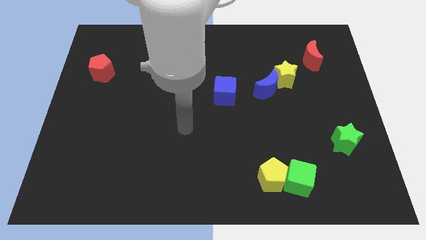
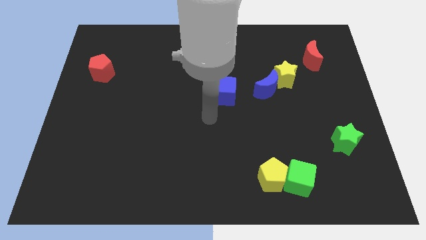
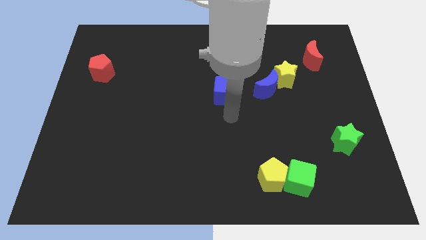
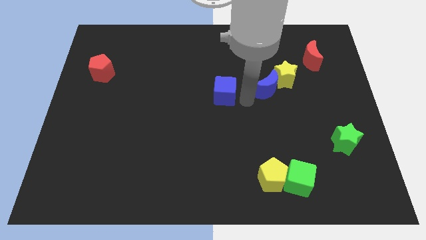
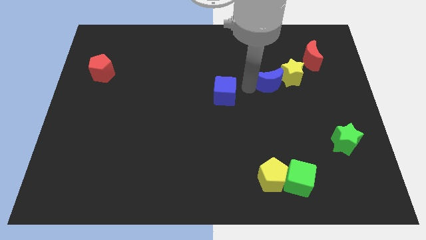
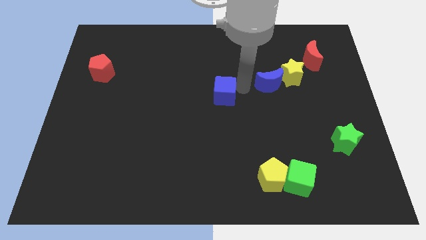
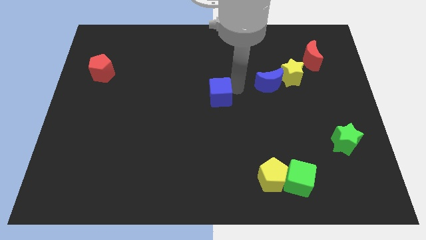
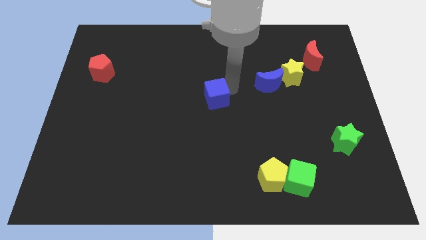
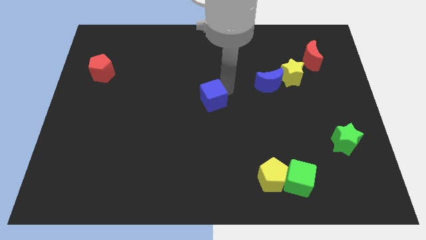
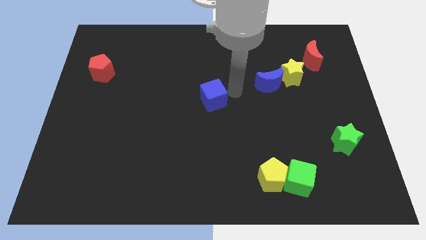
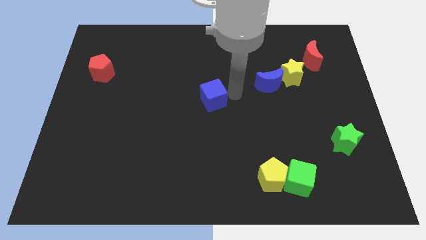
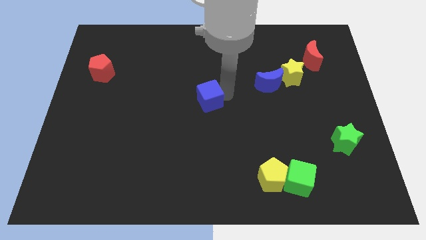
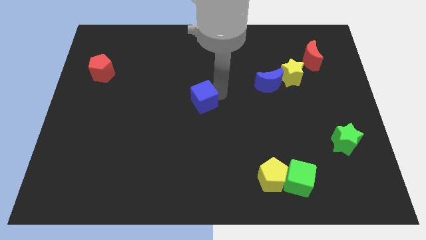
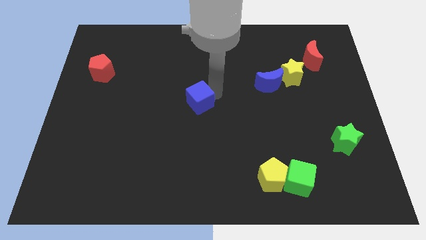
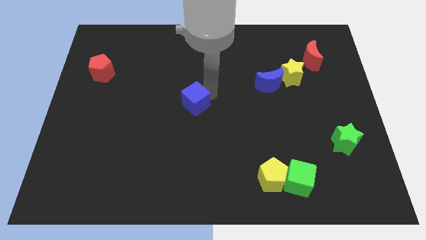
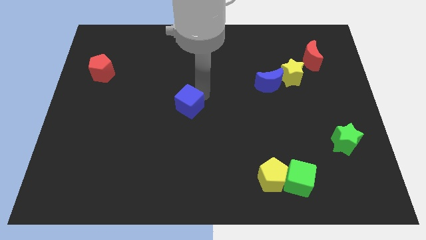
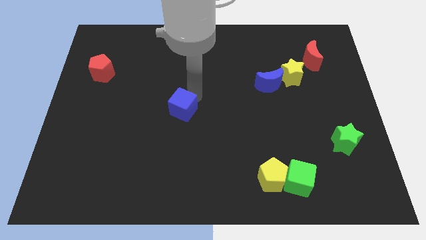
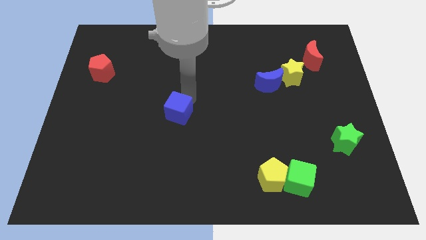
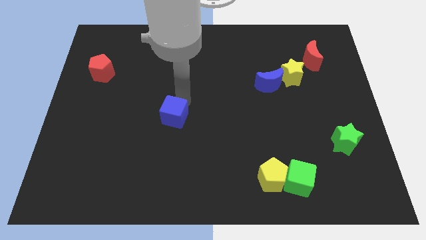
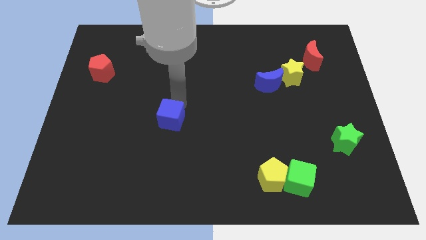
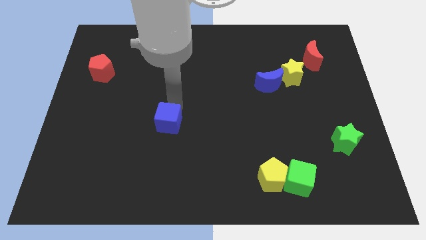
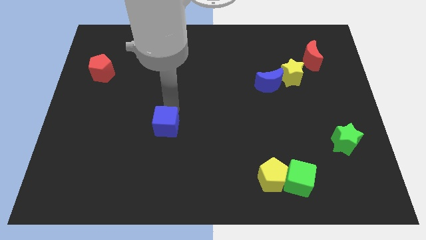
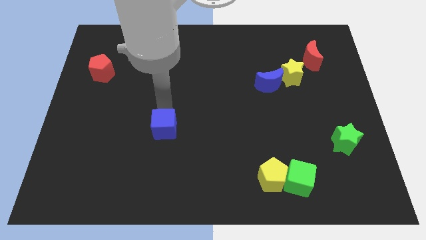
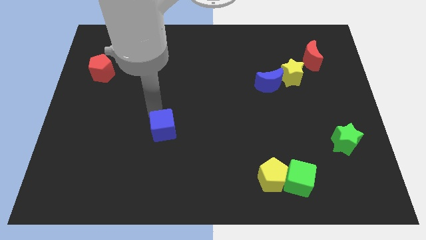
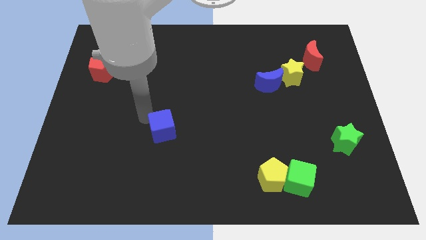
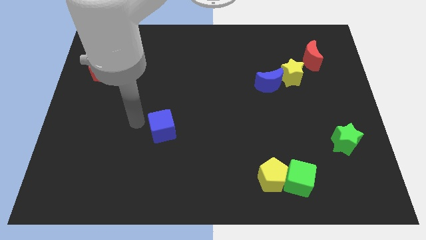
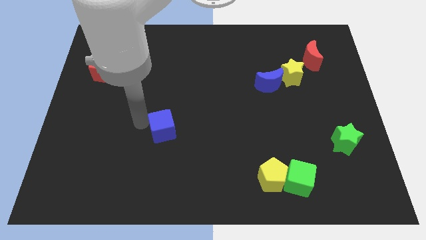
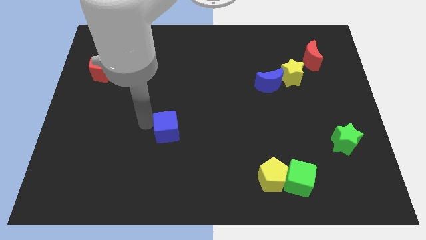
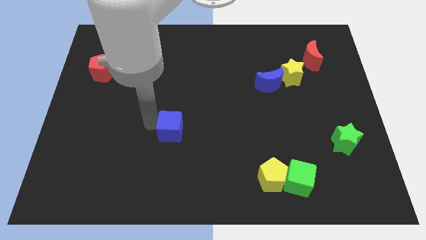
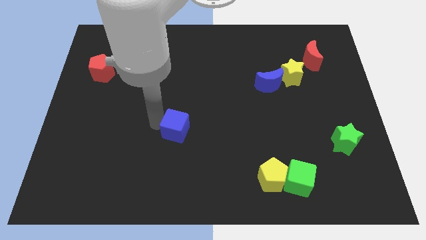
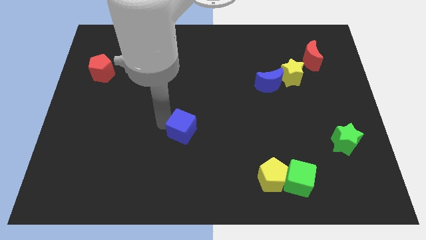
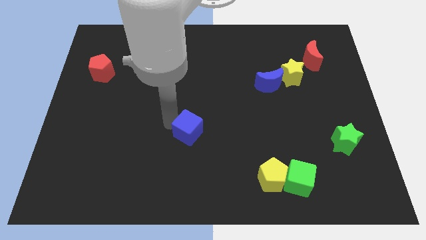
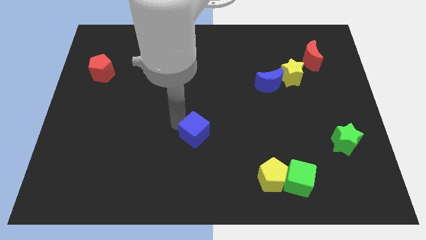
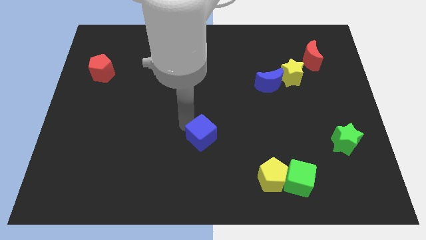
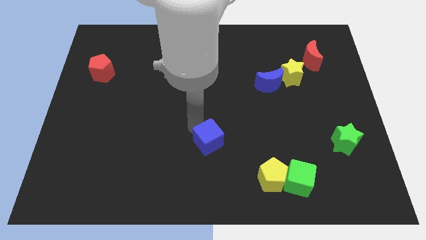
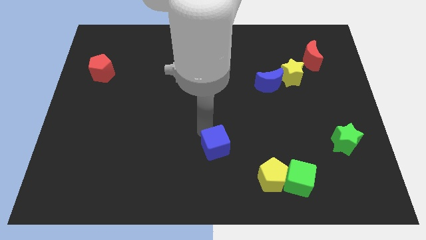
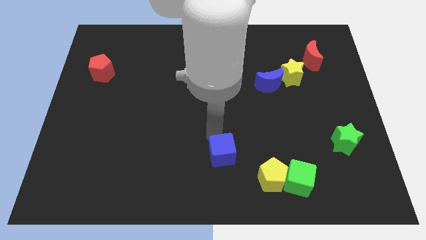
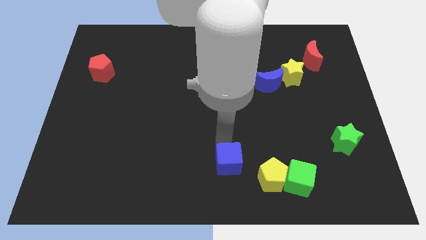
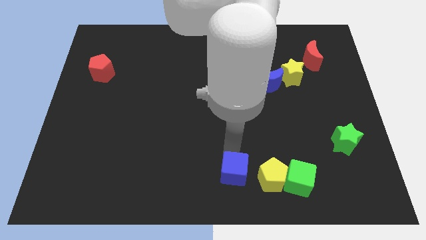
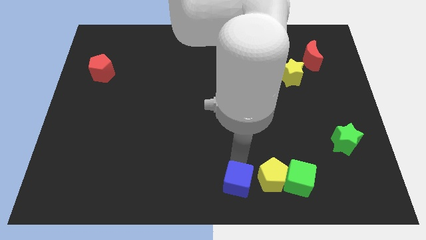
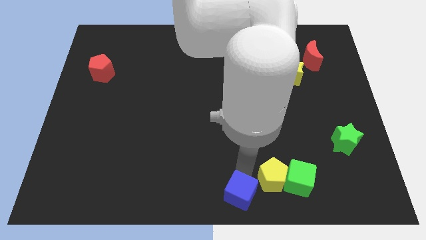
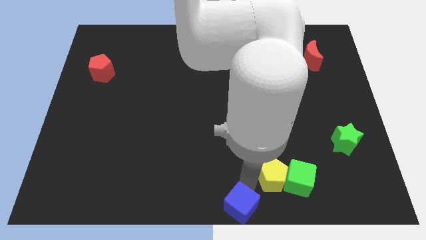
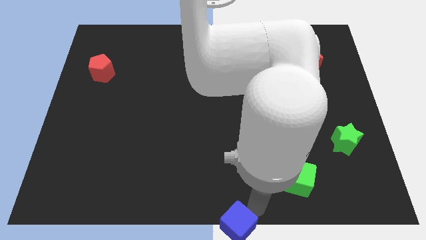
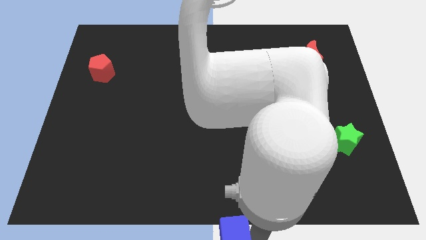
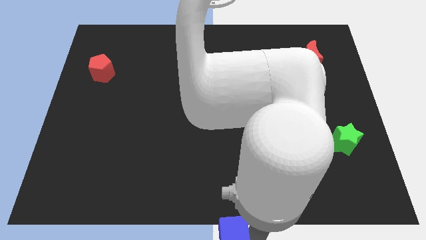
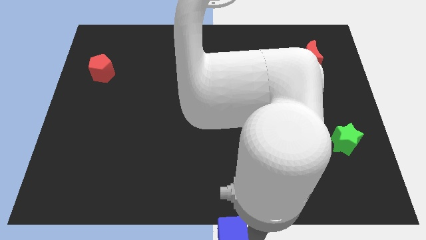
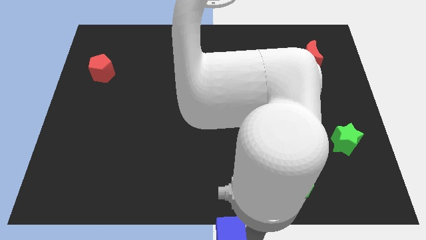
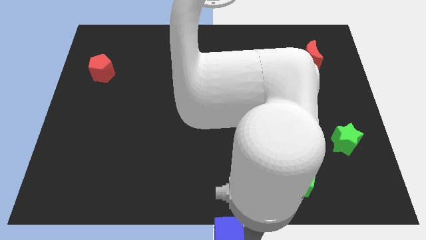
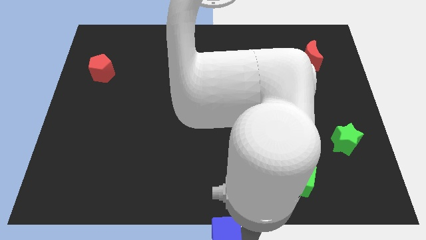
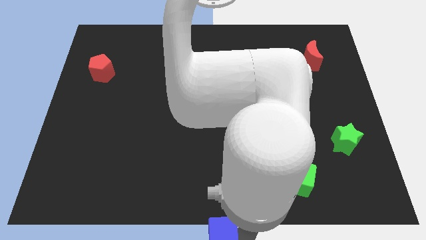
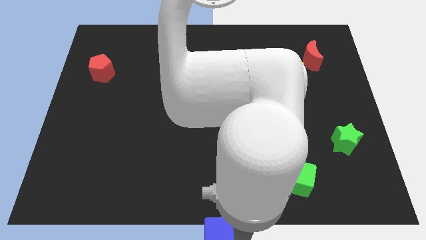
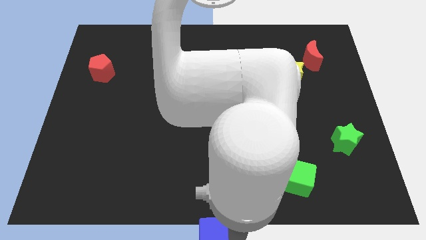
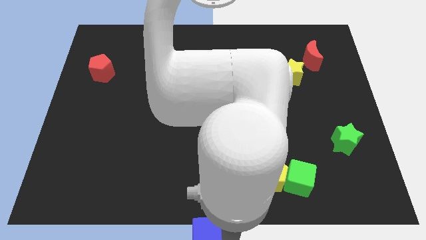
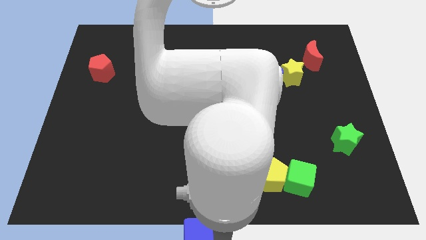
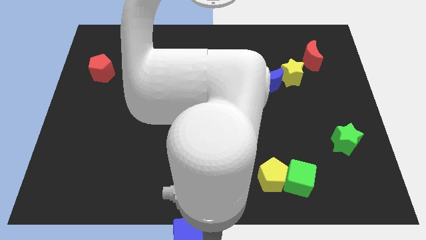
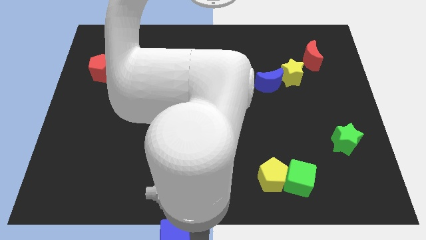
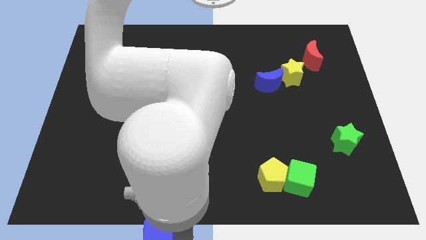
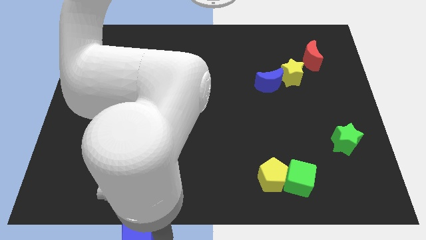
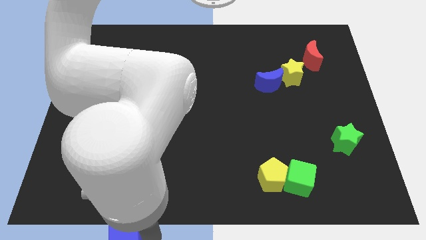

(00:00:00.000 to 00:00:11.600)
move the blue cube downwards and left diagonally

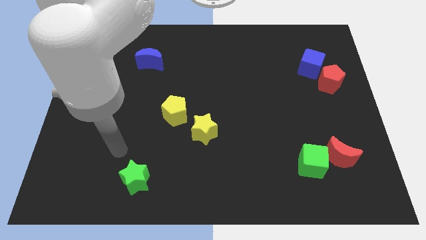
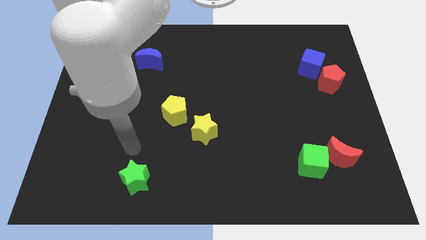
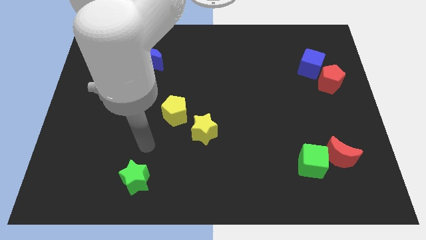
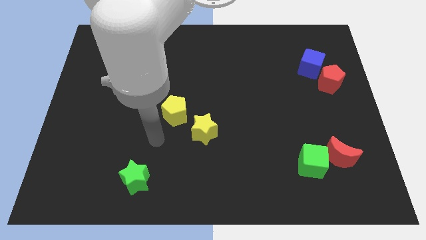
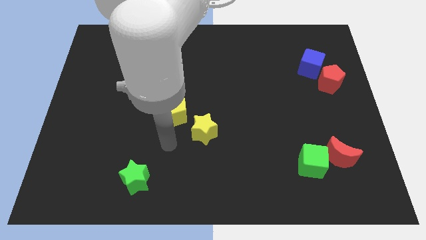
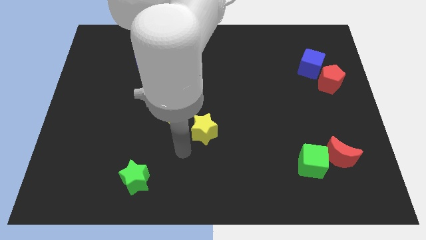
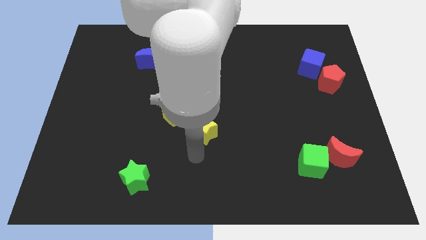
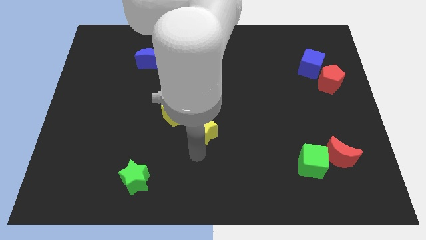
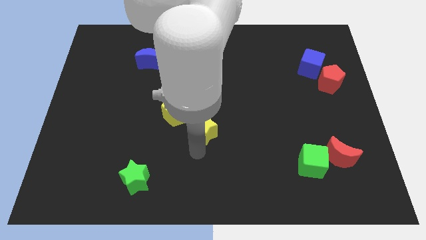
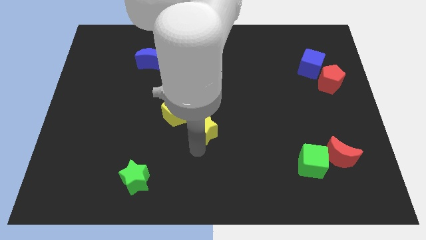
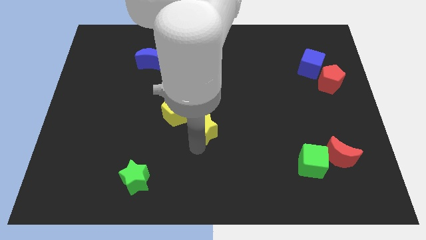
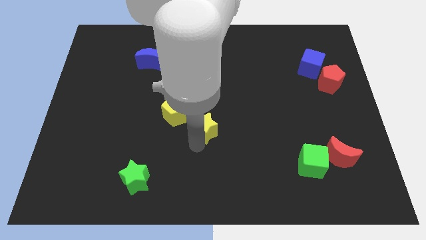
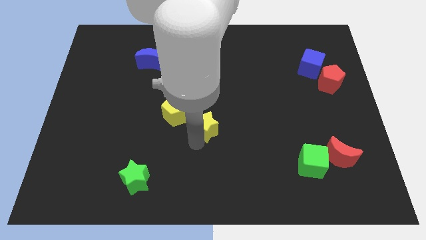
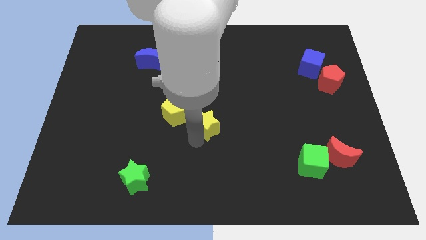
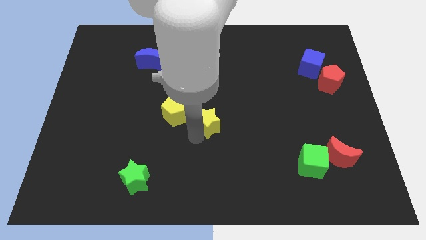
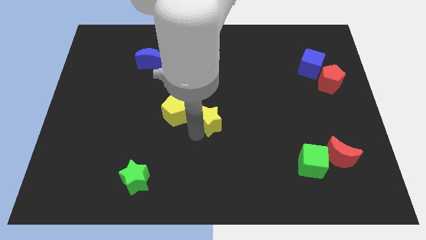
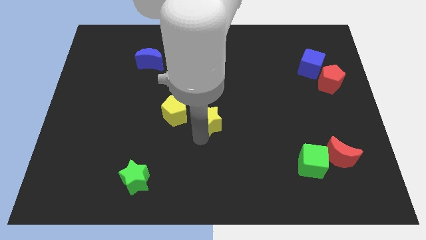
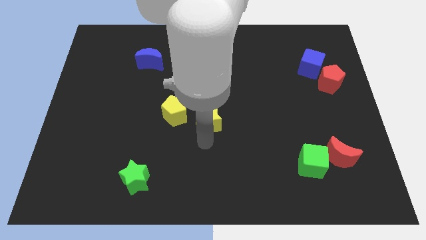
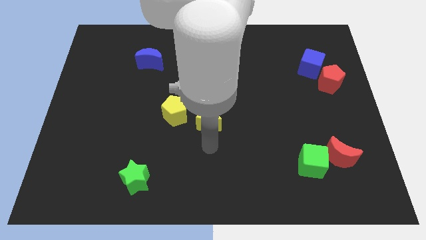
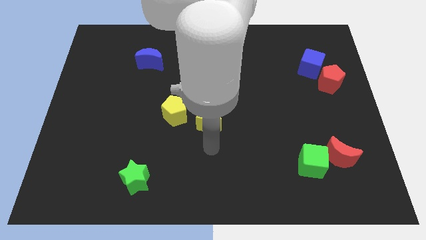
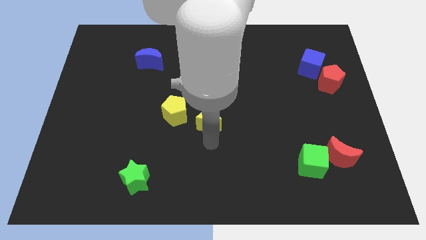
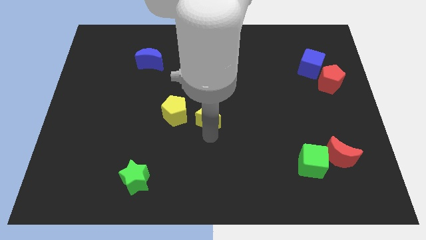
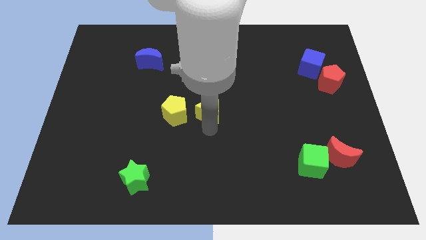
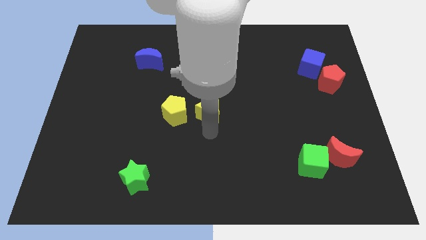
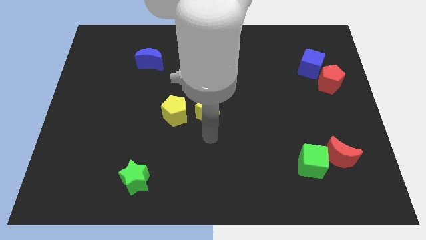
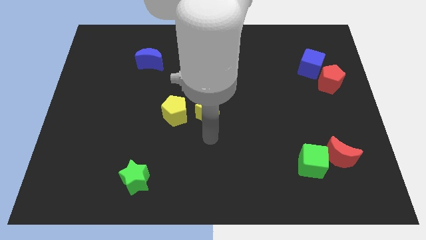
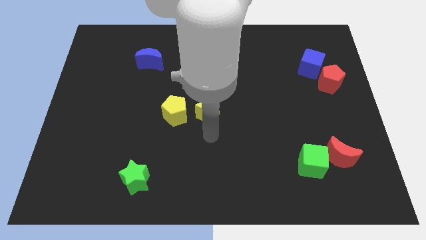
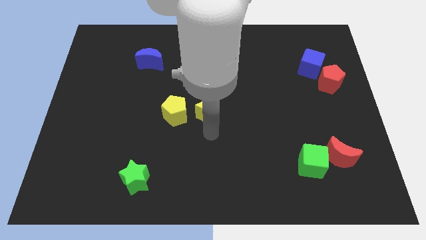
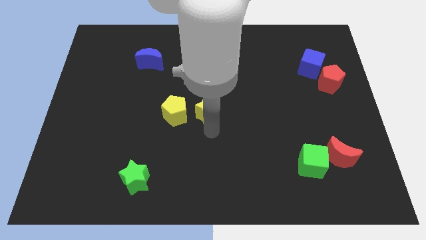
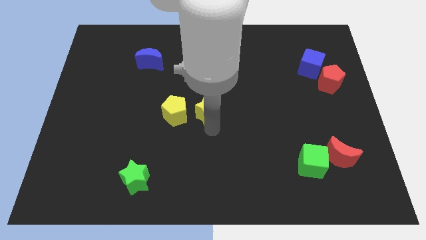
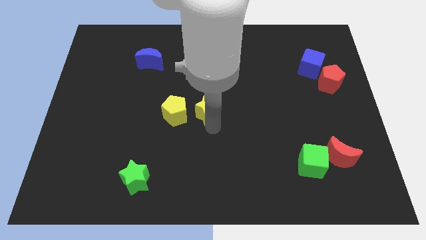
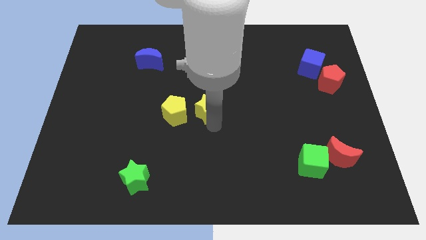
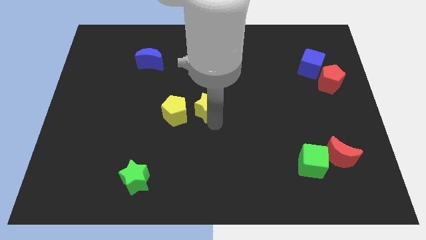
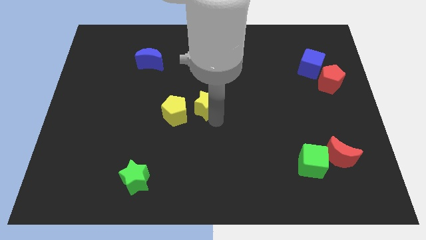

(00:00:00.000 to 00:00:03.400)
slide the yellow star upwards somewhat
